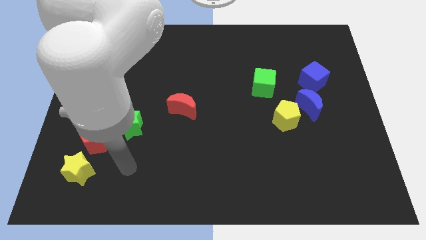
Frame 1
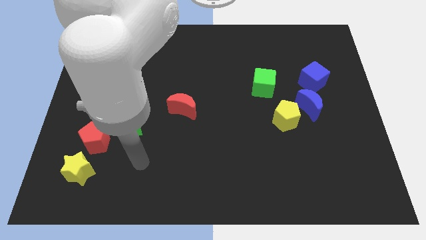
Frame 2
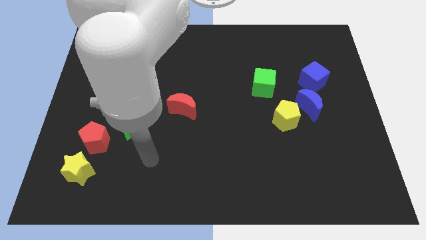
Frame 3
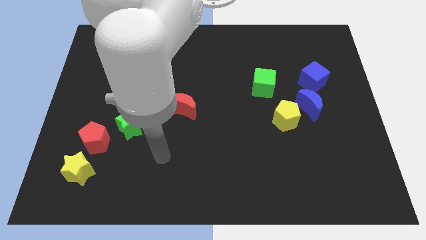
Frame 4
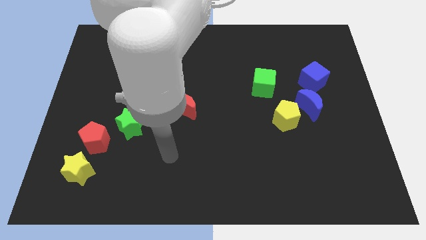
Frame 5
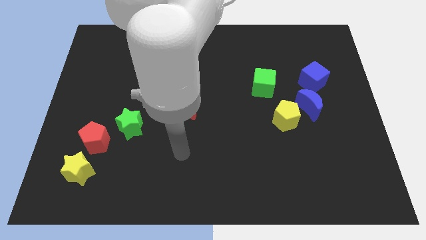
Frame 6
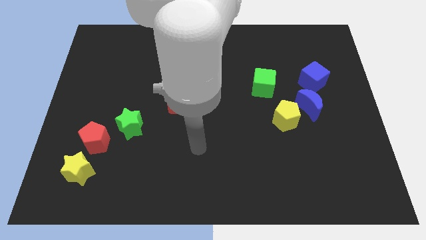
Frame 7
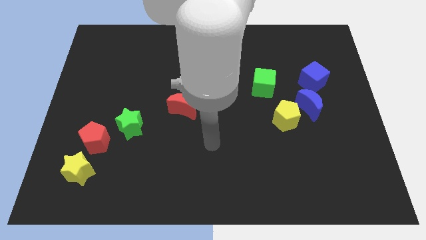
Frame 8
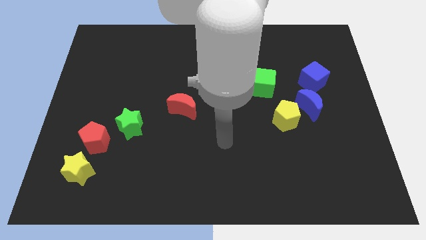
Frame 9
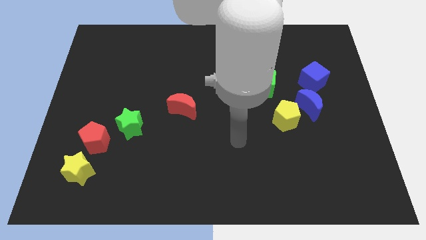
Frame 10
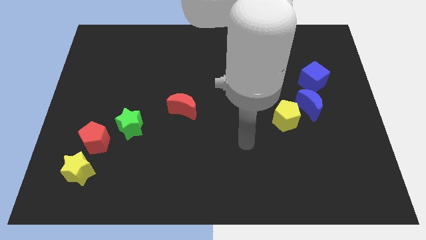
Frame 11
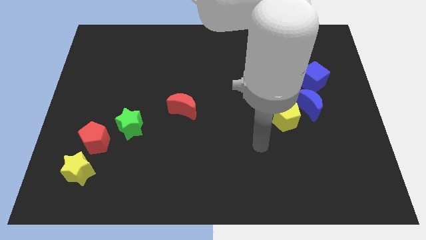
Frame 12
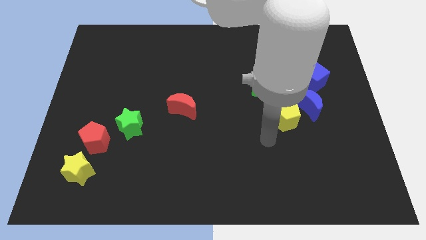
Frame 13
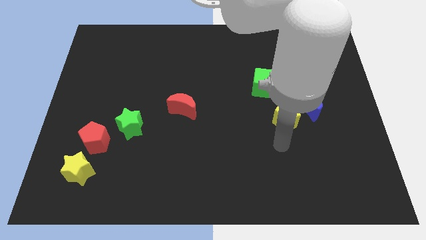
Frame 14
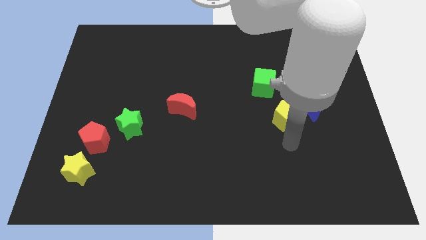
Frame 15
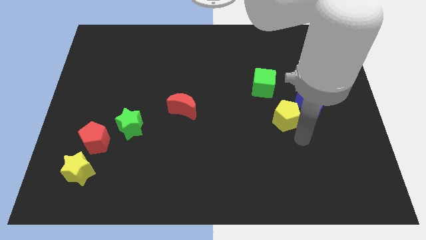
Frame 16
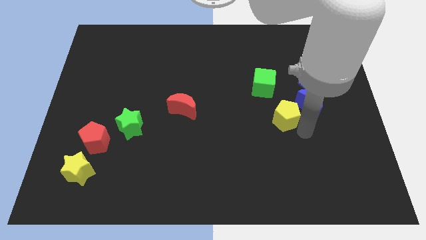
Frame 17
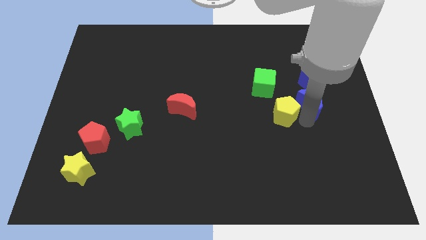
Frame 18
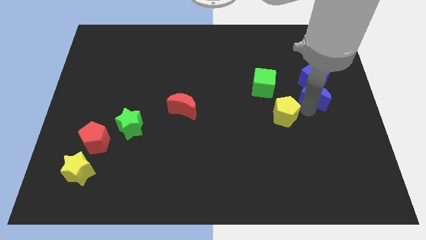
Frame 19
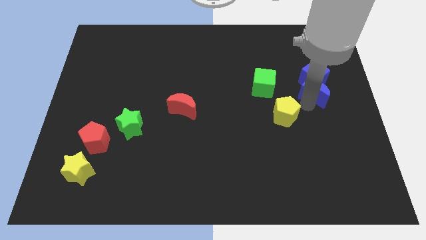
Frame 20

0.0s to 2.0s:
pull the yellow pentagon apart from the blue moon

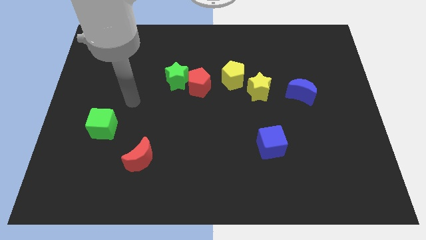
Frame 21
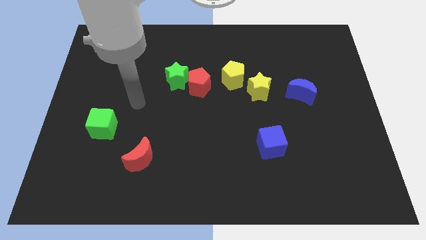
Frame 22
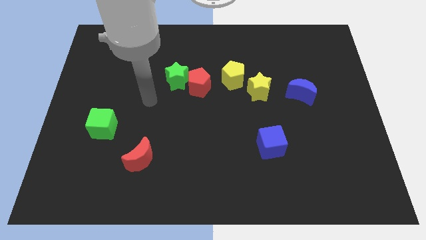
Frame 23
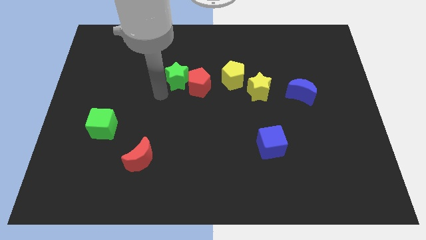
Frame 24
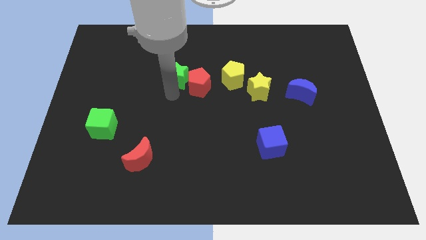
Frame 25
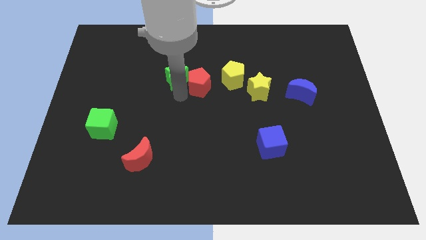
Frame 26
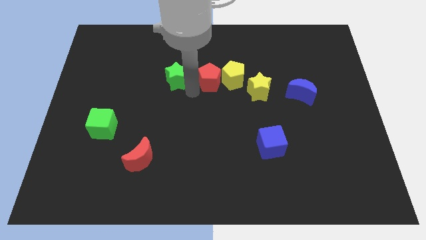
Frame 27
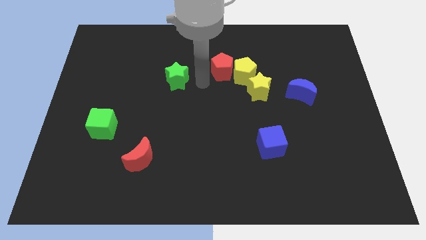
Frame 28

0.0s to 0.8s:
pull the green star apart from the red pentagon

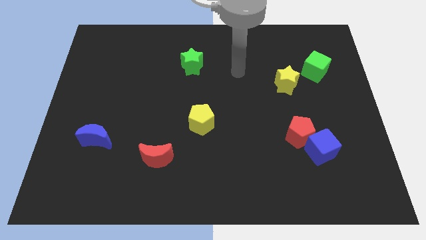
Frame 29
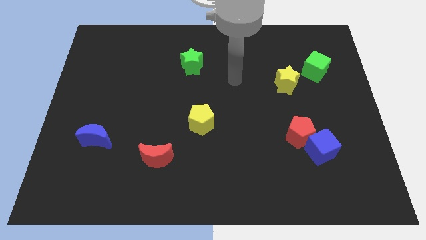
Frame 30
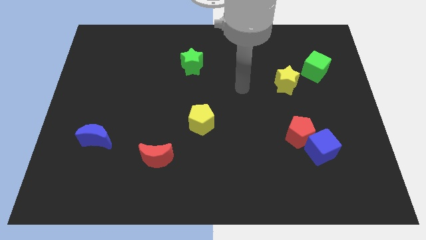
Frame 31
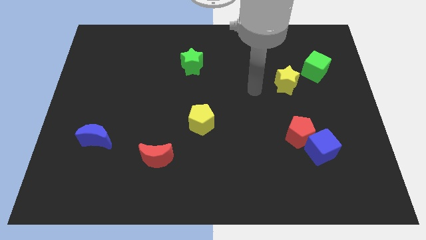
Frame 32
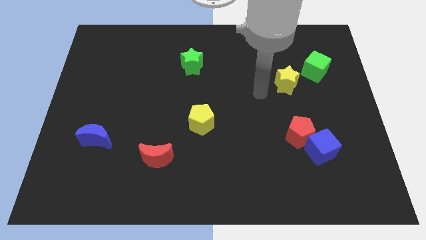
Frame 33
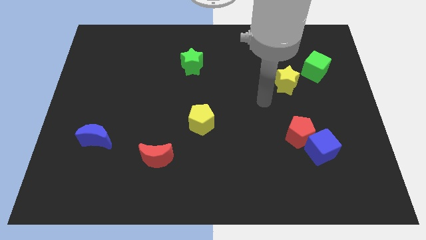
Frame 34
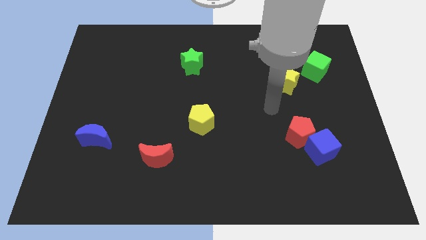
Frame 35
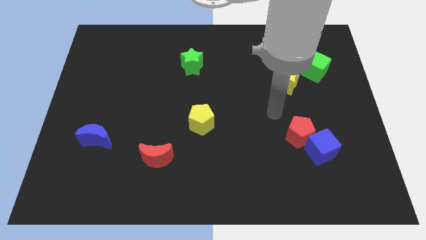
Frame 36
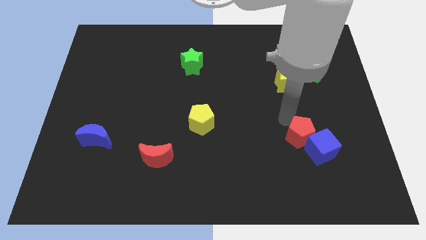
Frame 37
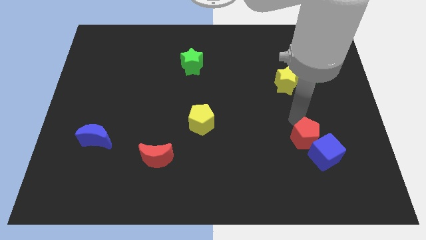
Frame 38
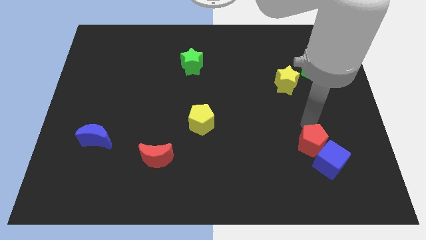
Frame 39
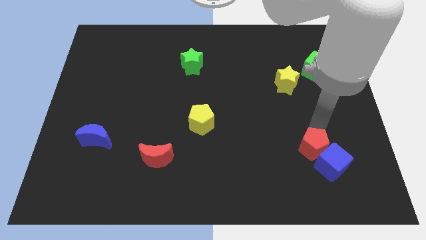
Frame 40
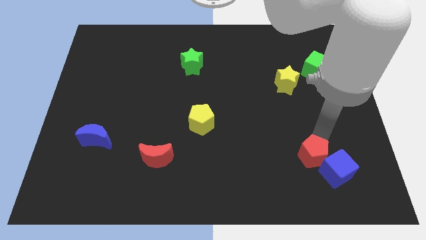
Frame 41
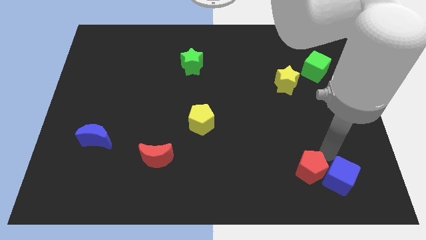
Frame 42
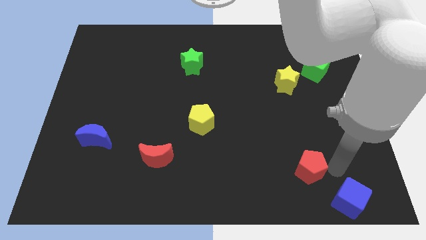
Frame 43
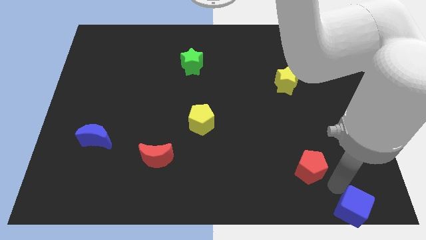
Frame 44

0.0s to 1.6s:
move the red pentagon away from the blue cube

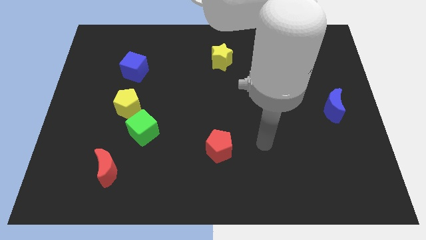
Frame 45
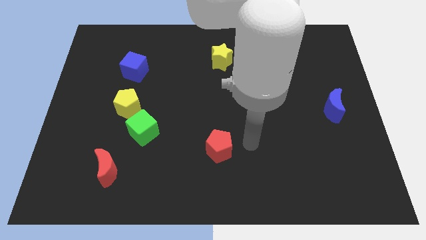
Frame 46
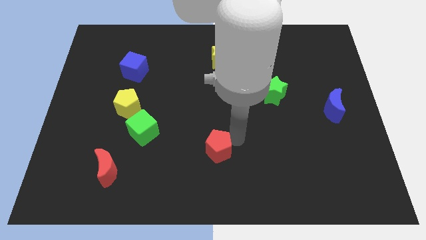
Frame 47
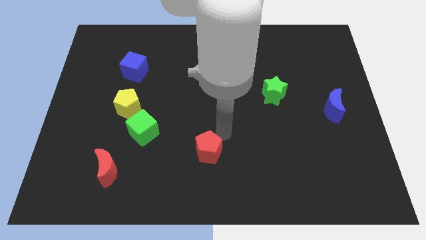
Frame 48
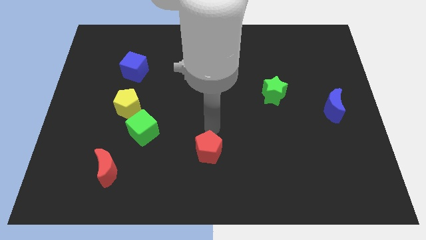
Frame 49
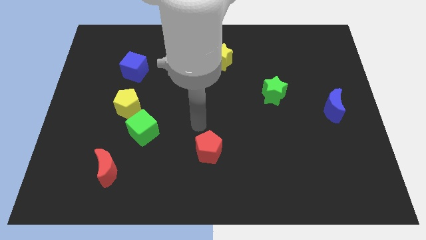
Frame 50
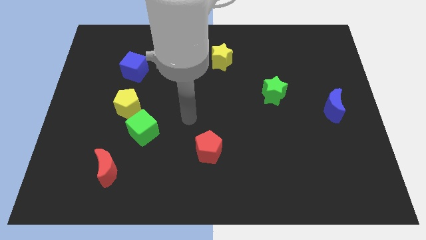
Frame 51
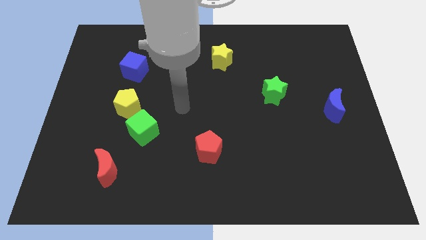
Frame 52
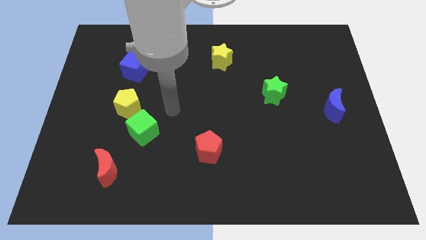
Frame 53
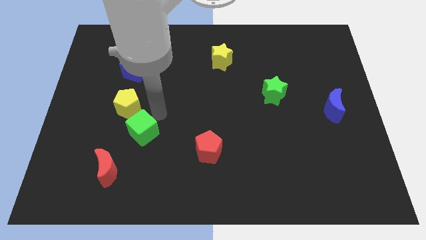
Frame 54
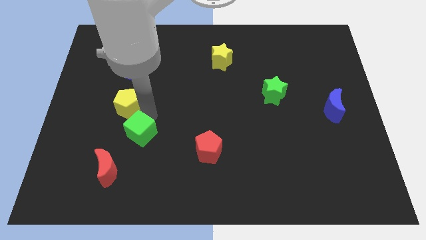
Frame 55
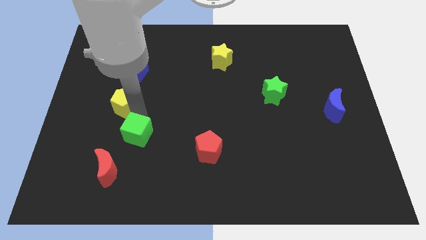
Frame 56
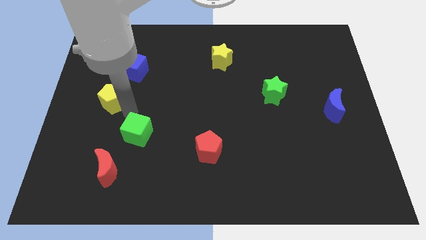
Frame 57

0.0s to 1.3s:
move the green cube away from the yellow pentagon

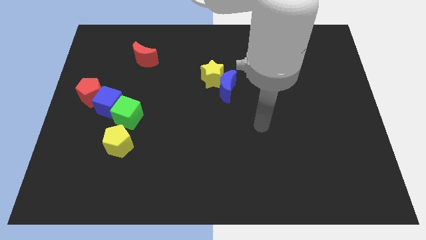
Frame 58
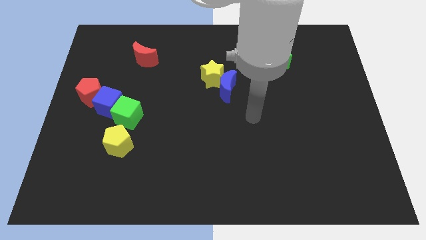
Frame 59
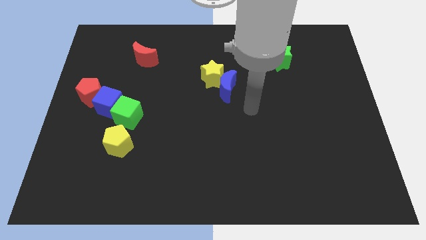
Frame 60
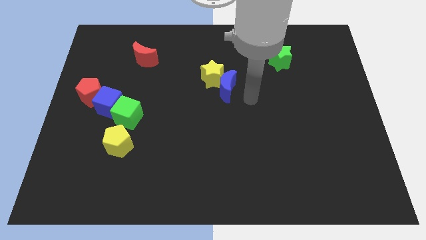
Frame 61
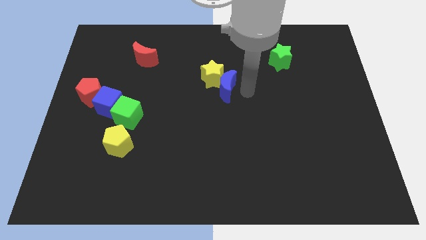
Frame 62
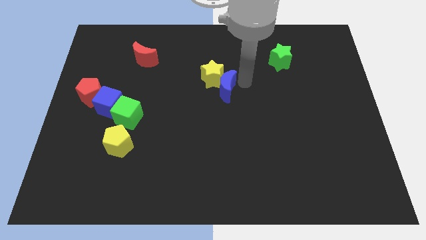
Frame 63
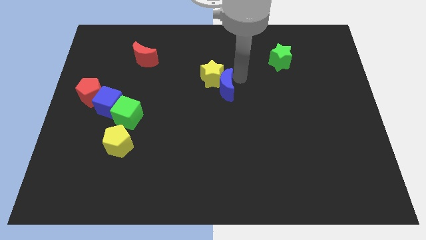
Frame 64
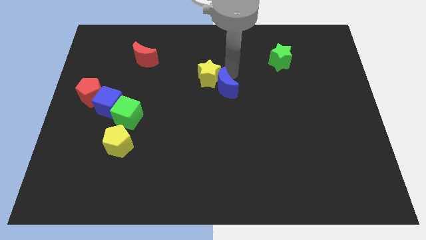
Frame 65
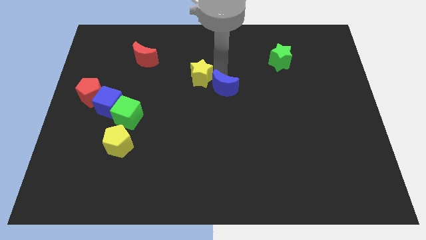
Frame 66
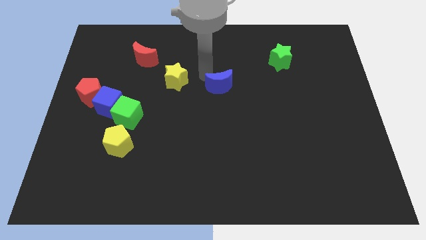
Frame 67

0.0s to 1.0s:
separate the blue moon from the yellow star

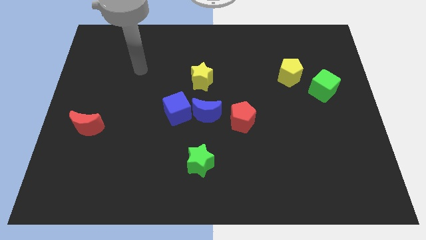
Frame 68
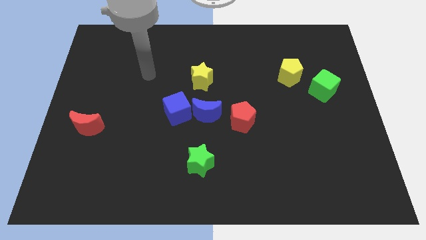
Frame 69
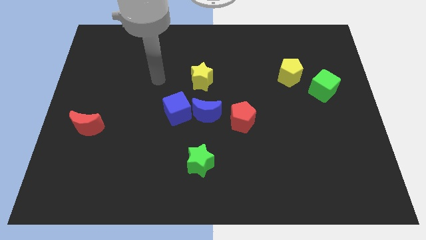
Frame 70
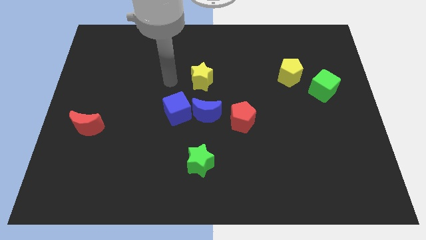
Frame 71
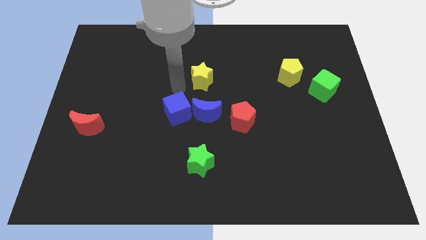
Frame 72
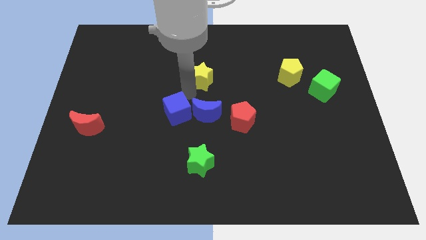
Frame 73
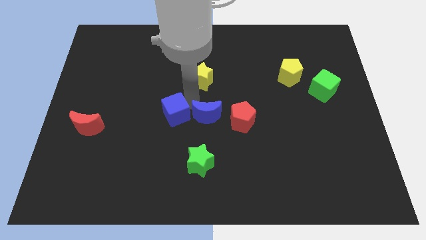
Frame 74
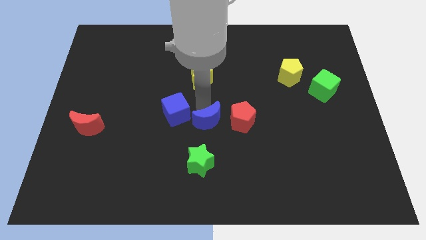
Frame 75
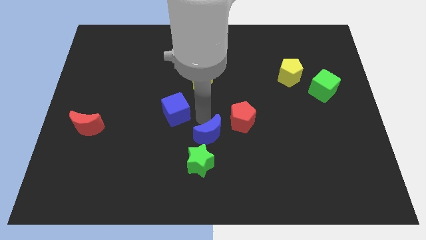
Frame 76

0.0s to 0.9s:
separate the blue cube from the blue moon

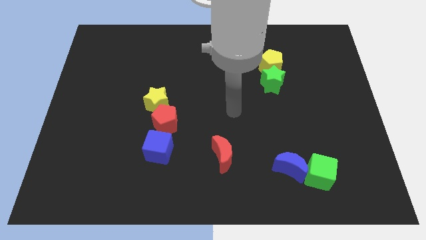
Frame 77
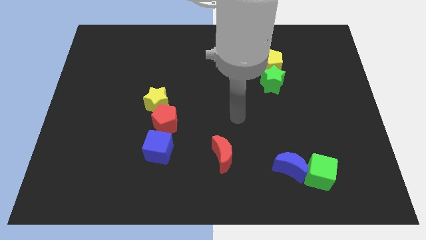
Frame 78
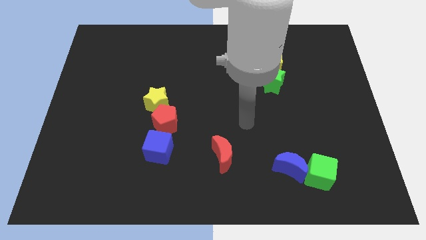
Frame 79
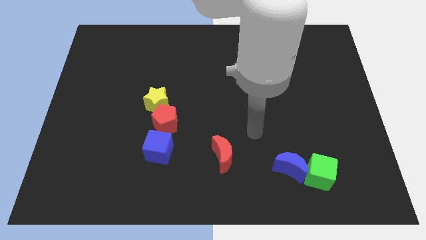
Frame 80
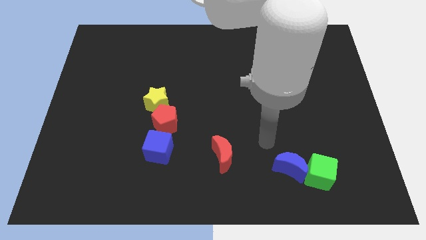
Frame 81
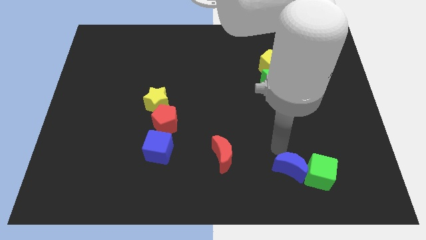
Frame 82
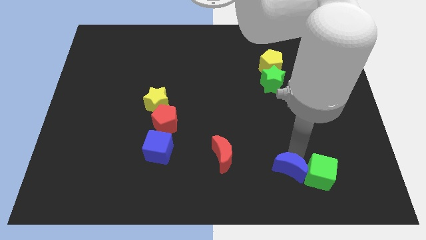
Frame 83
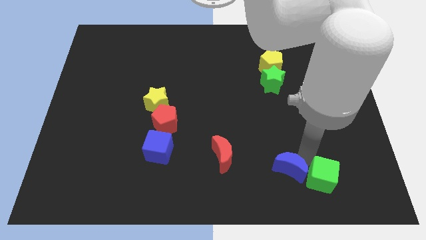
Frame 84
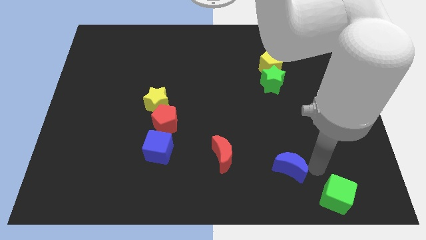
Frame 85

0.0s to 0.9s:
separate the blue moon from the green cube

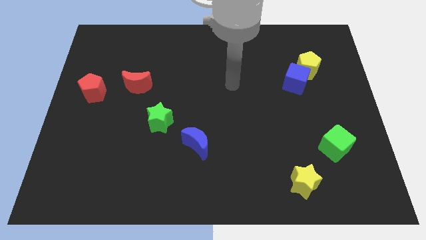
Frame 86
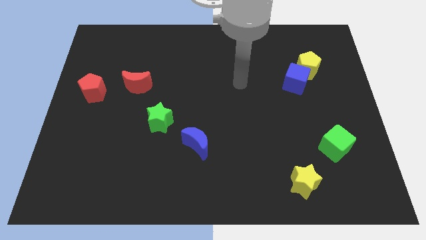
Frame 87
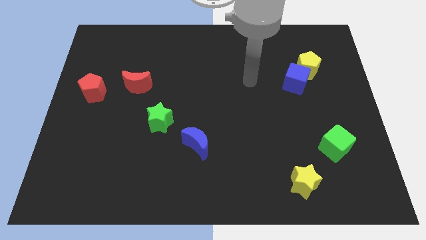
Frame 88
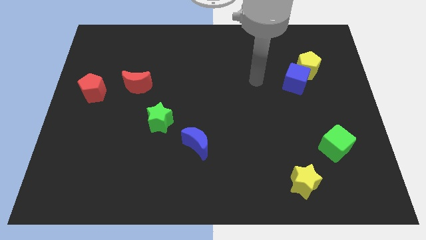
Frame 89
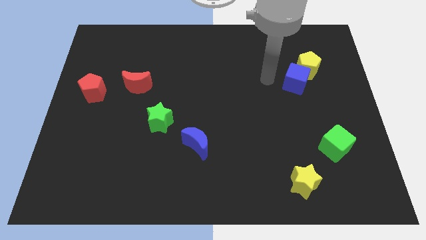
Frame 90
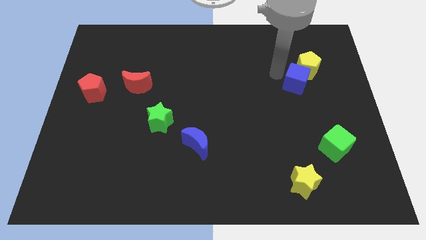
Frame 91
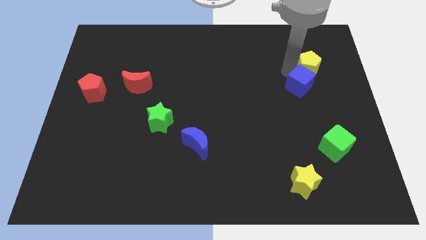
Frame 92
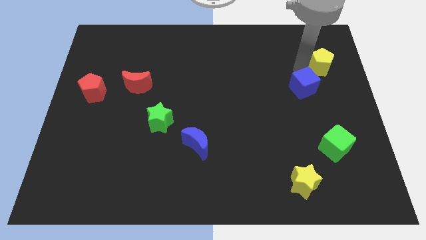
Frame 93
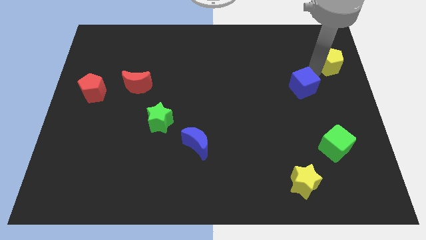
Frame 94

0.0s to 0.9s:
separate the blue cube from the yellow pentagon
